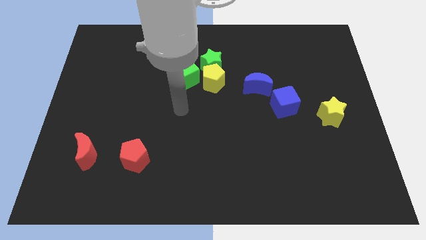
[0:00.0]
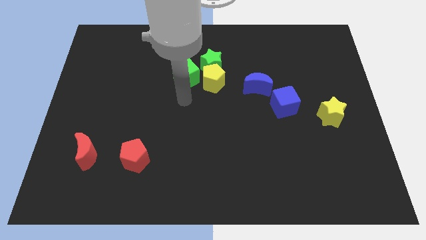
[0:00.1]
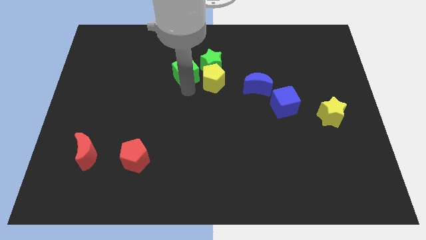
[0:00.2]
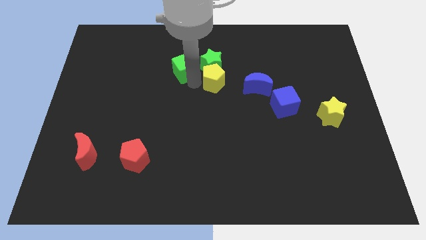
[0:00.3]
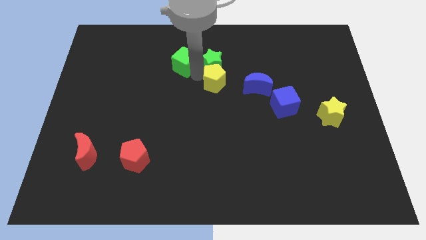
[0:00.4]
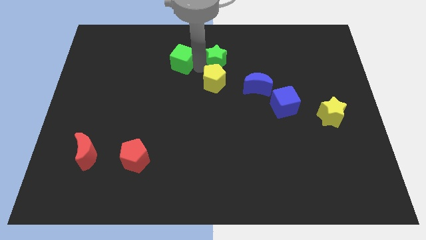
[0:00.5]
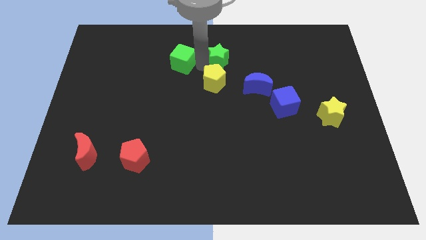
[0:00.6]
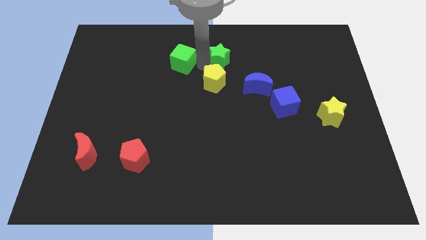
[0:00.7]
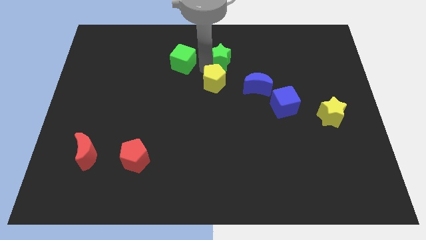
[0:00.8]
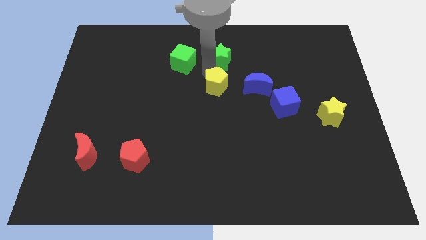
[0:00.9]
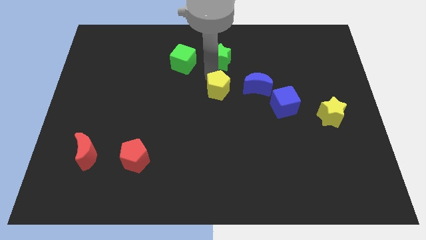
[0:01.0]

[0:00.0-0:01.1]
pull the yellow pentagon apart from the green star and green cube

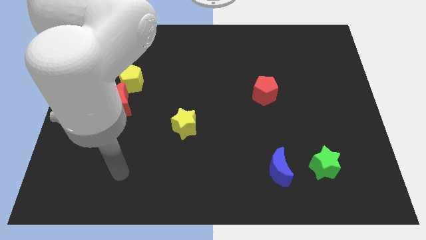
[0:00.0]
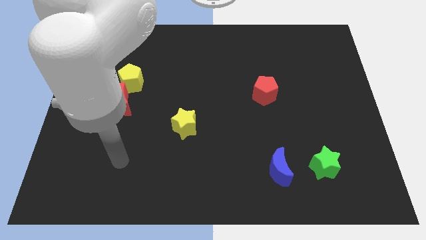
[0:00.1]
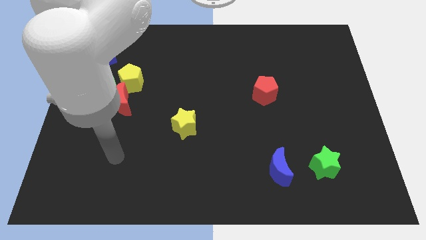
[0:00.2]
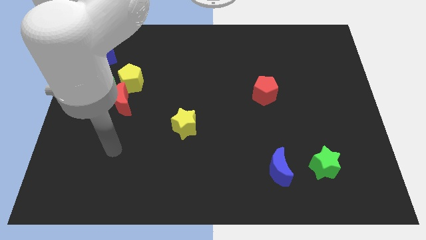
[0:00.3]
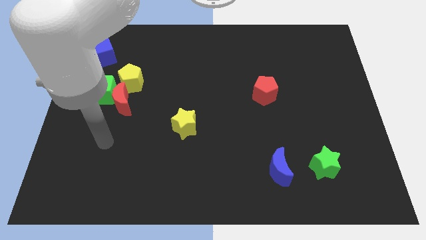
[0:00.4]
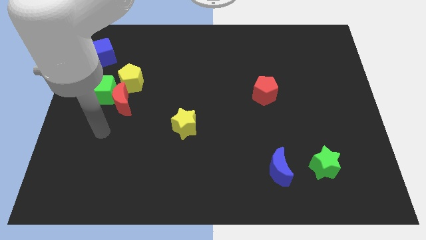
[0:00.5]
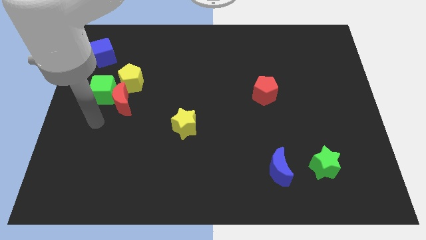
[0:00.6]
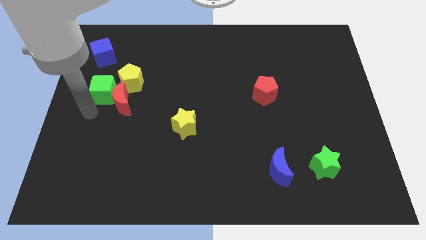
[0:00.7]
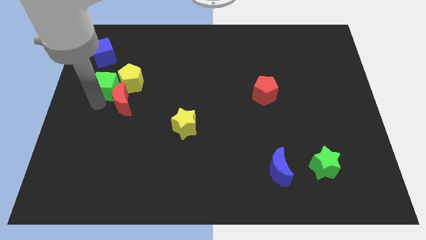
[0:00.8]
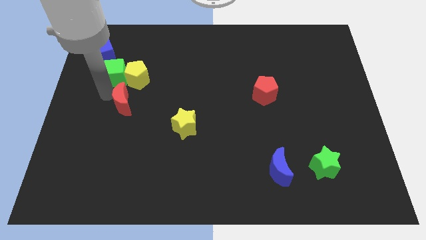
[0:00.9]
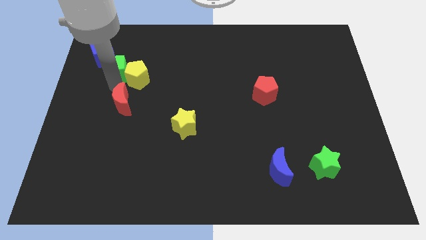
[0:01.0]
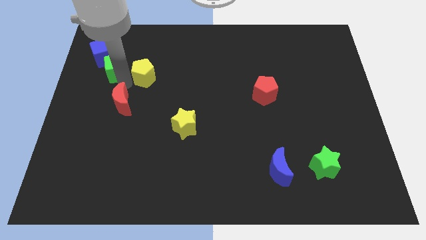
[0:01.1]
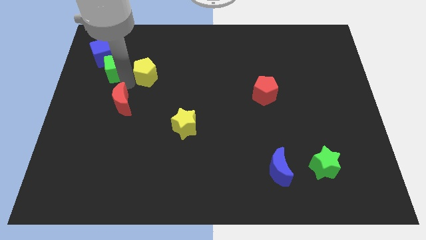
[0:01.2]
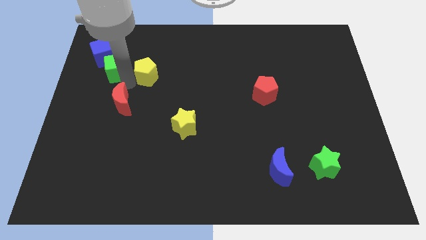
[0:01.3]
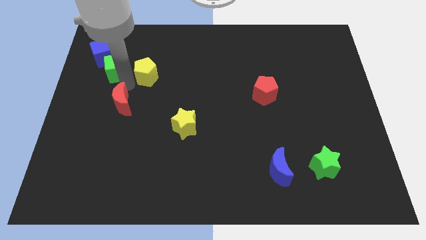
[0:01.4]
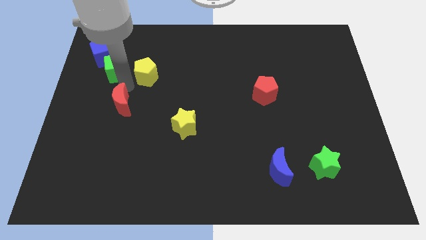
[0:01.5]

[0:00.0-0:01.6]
move the red moon away from the green cube and yellow pentagon

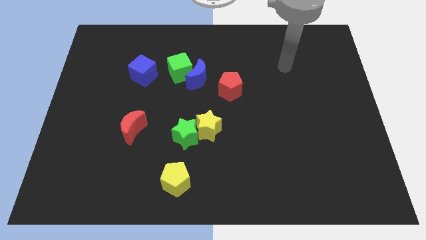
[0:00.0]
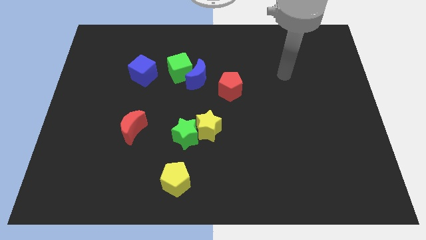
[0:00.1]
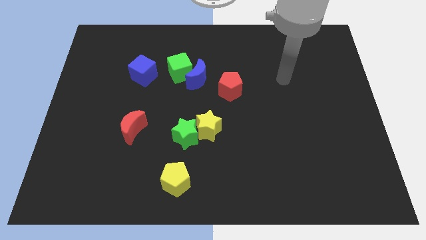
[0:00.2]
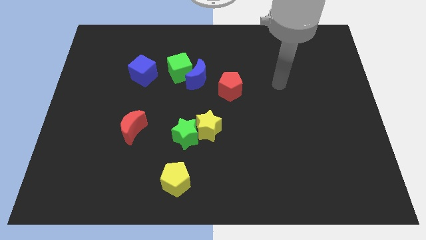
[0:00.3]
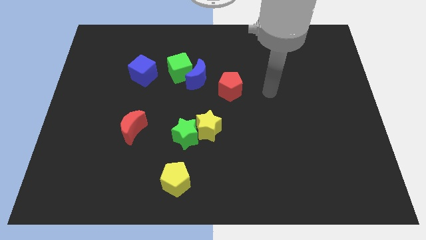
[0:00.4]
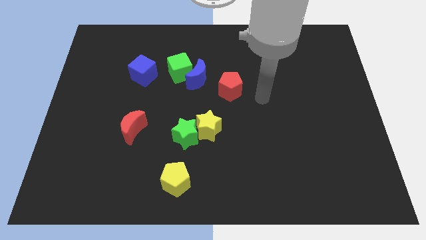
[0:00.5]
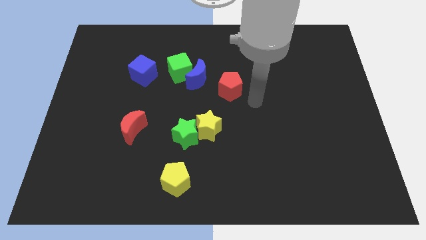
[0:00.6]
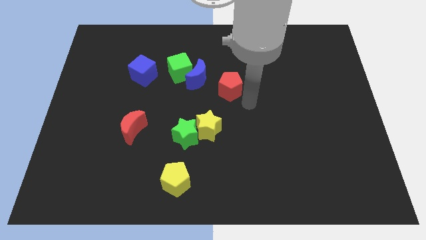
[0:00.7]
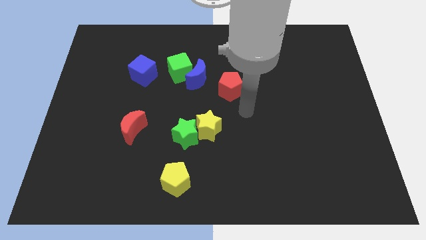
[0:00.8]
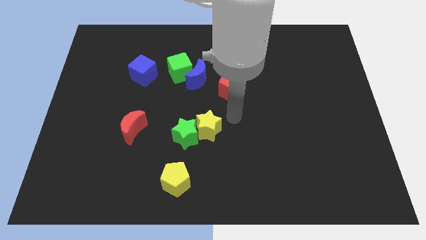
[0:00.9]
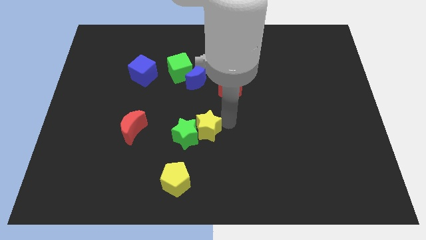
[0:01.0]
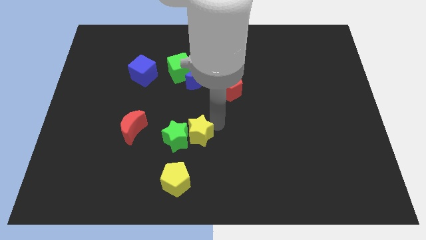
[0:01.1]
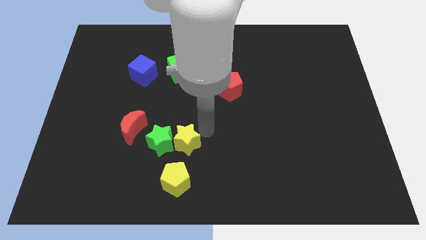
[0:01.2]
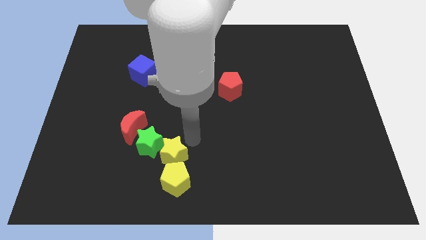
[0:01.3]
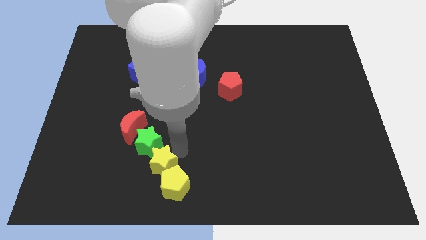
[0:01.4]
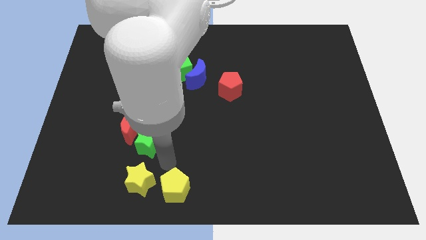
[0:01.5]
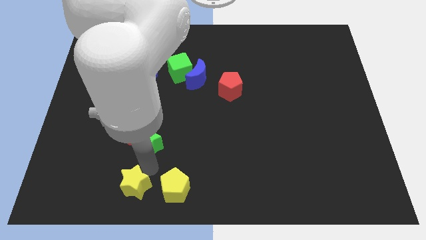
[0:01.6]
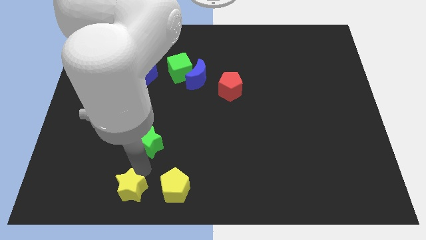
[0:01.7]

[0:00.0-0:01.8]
separate the green star from the yellow star

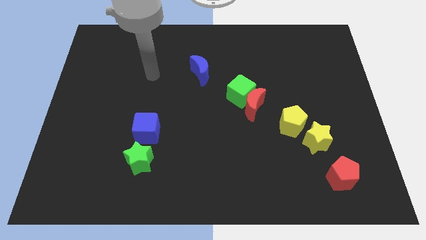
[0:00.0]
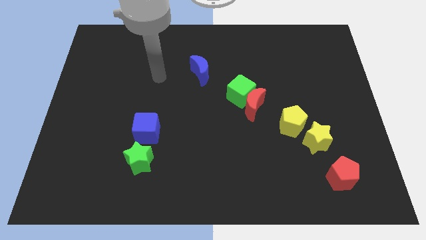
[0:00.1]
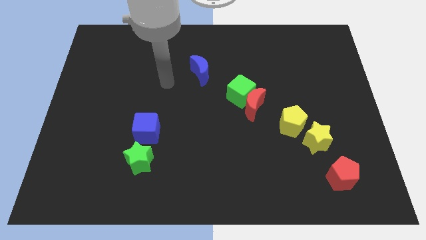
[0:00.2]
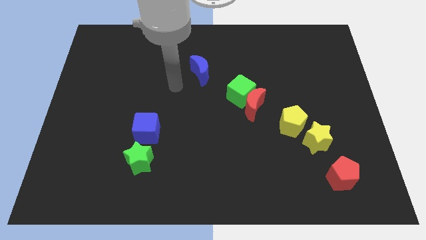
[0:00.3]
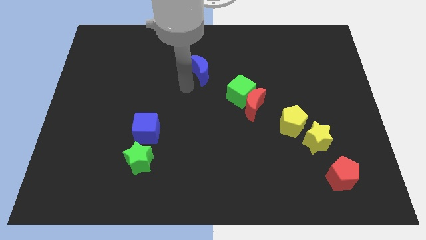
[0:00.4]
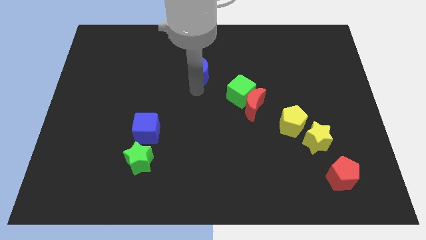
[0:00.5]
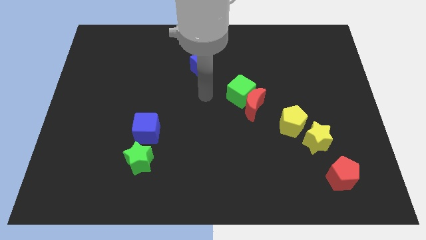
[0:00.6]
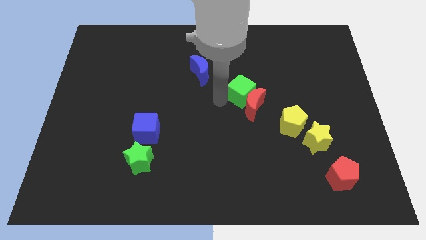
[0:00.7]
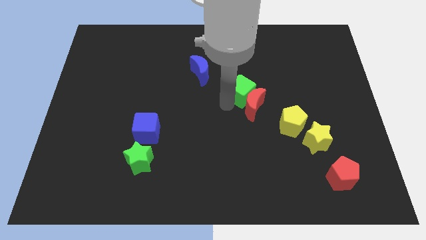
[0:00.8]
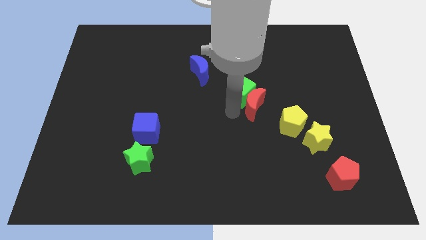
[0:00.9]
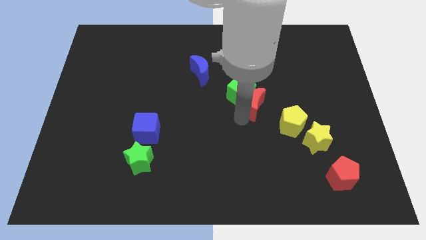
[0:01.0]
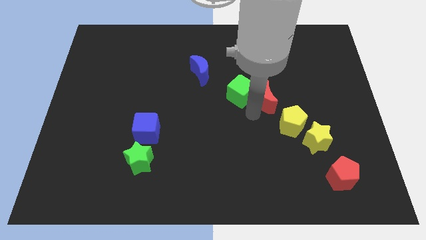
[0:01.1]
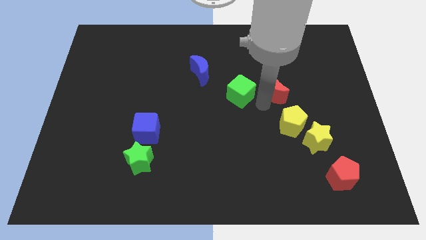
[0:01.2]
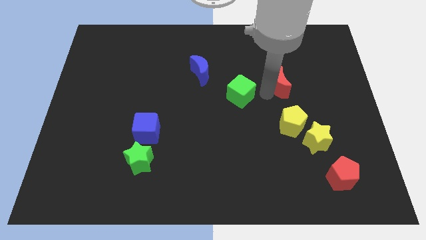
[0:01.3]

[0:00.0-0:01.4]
pull the green cube apart from the red moon

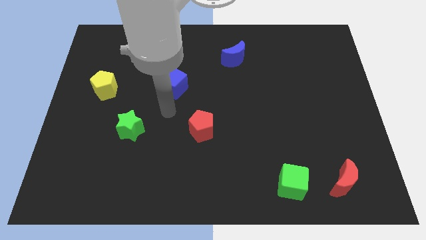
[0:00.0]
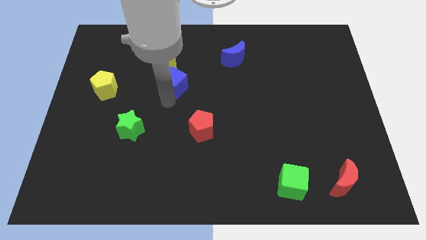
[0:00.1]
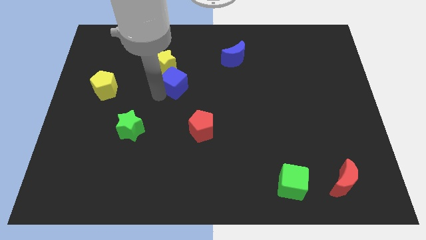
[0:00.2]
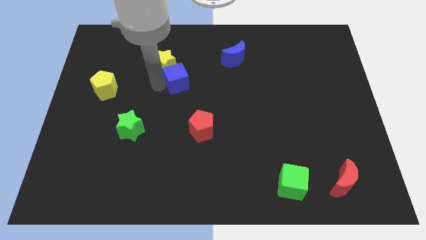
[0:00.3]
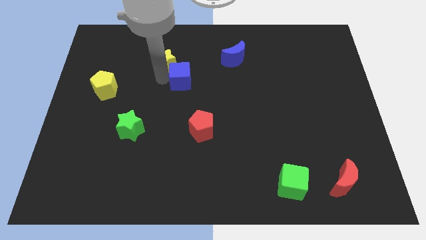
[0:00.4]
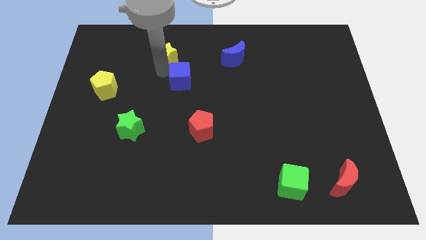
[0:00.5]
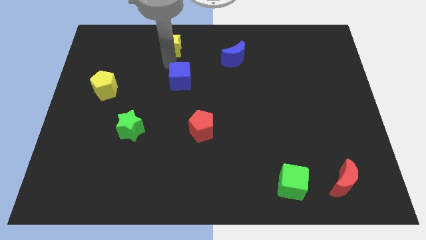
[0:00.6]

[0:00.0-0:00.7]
pull the blue cube apart from the yellow star

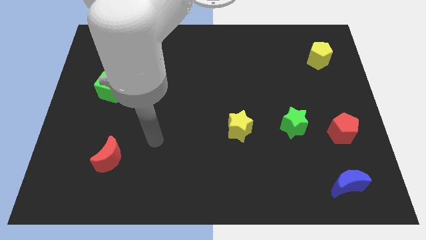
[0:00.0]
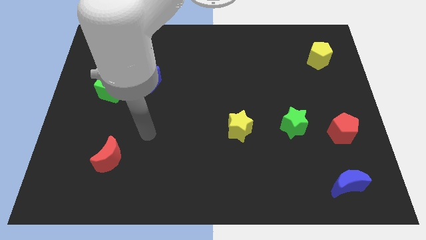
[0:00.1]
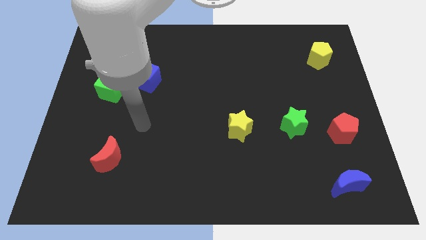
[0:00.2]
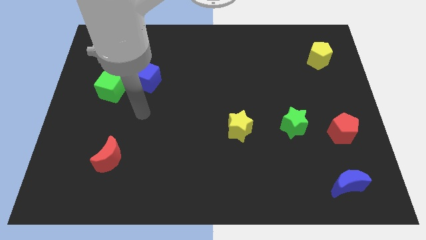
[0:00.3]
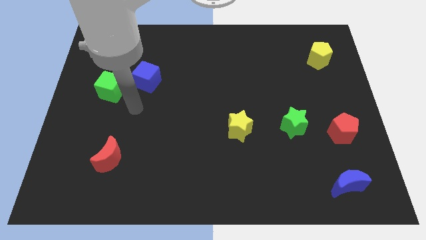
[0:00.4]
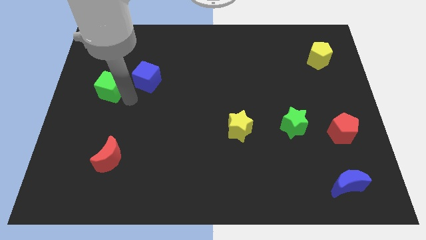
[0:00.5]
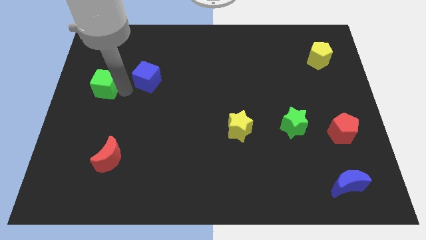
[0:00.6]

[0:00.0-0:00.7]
separate the blue cube from the green cube

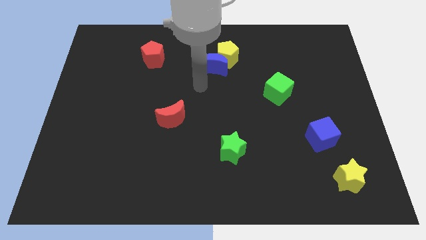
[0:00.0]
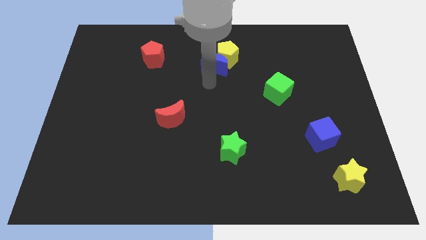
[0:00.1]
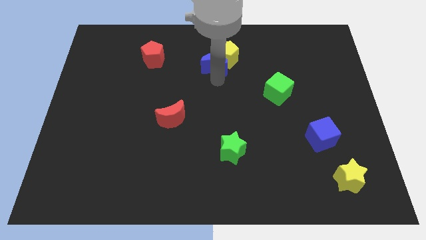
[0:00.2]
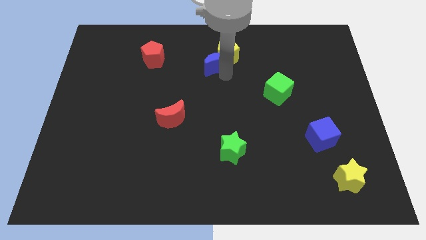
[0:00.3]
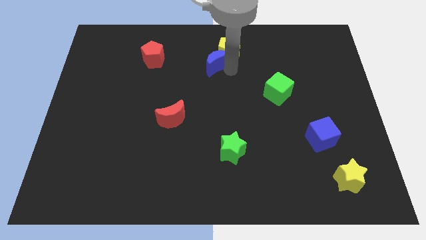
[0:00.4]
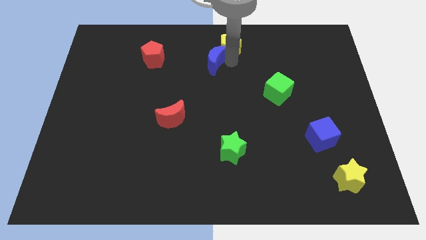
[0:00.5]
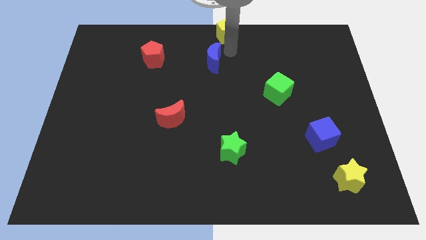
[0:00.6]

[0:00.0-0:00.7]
separate the blue moon from the yellow pentagon

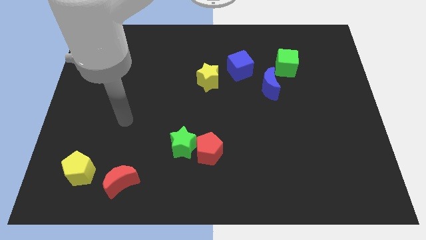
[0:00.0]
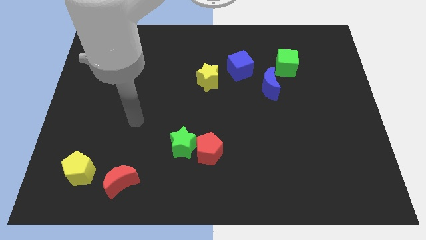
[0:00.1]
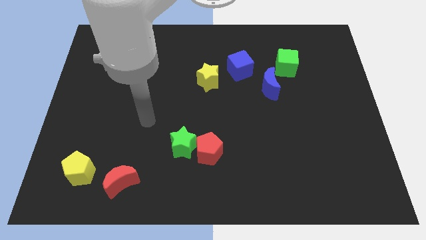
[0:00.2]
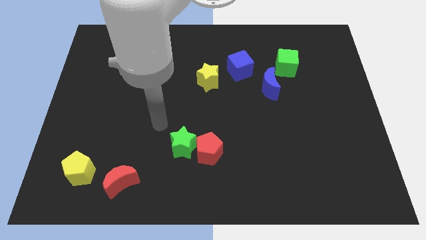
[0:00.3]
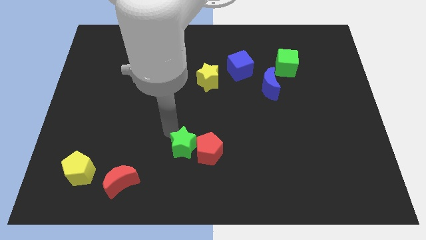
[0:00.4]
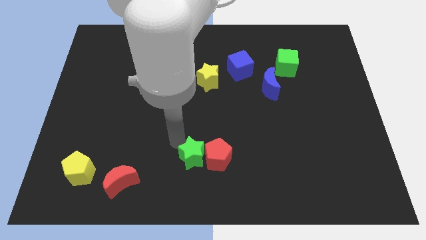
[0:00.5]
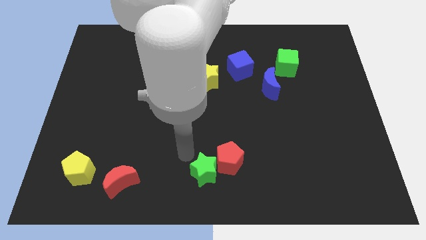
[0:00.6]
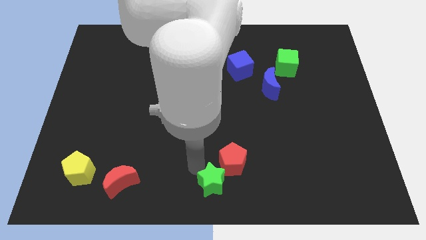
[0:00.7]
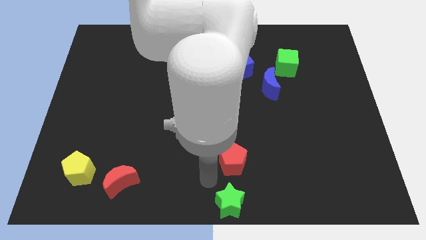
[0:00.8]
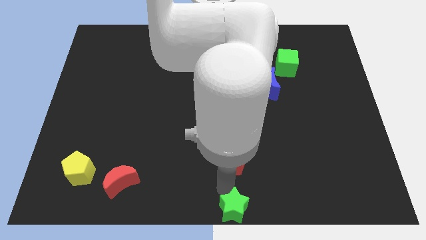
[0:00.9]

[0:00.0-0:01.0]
move the red pentagon away from the green star

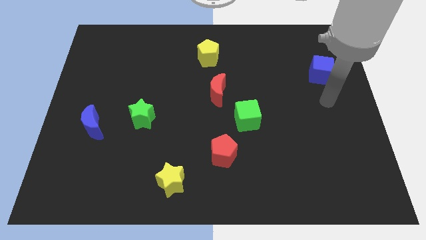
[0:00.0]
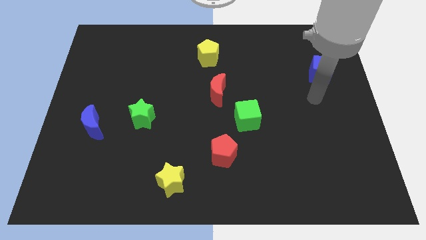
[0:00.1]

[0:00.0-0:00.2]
move the red moon away from the green cube
